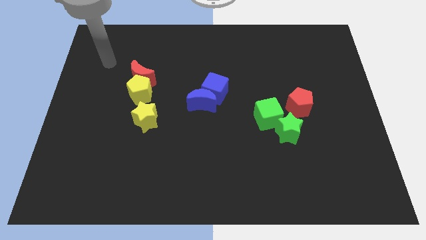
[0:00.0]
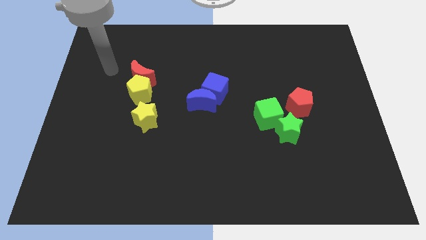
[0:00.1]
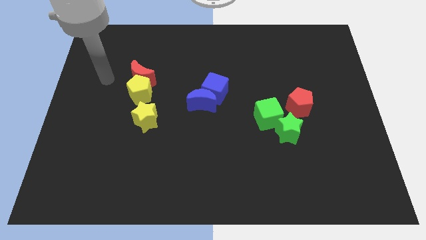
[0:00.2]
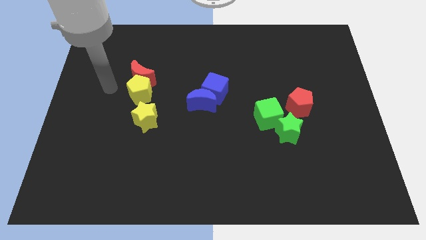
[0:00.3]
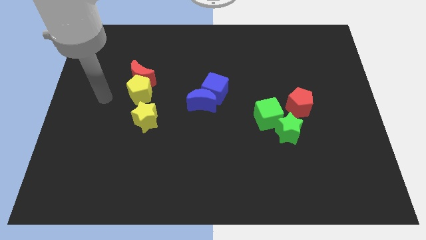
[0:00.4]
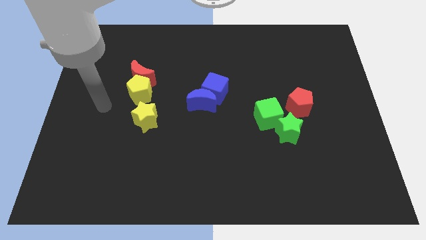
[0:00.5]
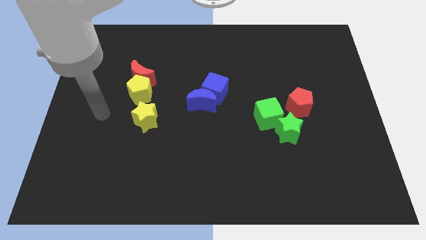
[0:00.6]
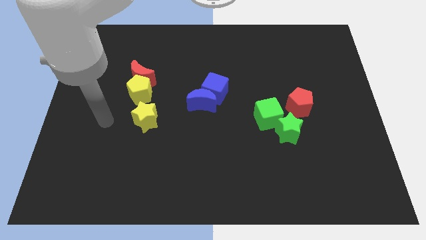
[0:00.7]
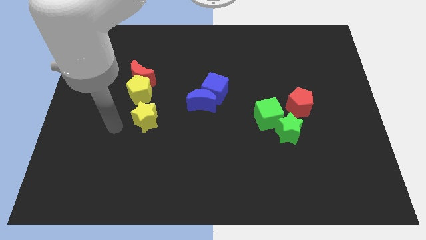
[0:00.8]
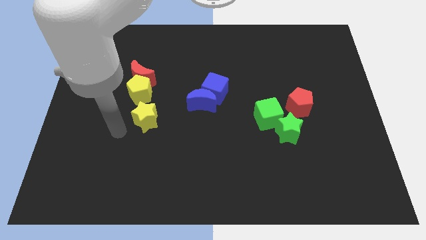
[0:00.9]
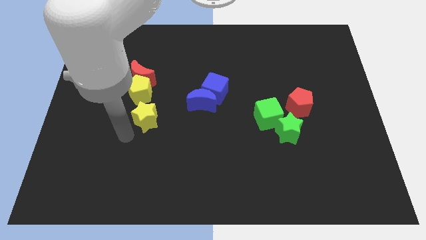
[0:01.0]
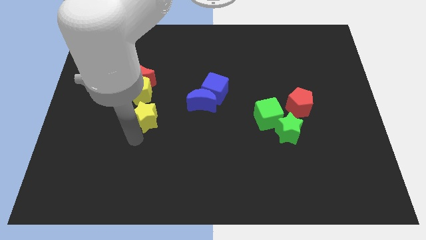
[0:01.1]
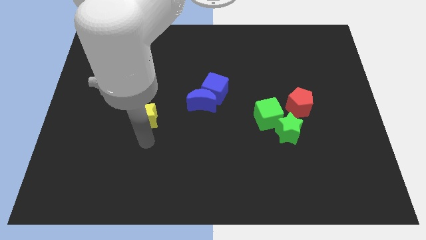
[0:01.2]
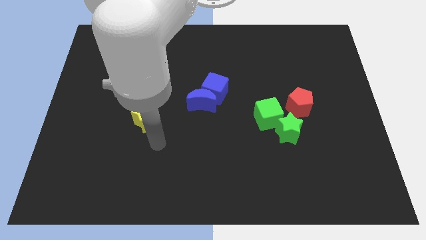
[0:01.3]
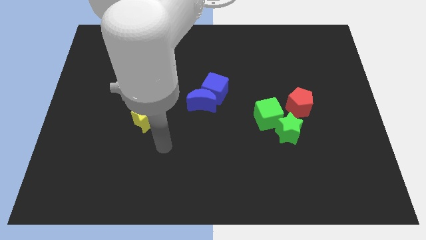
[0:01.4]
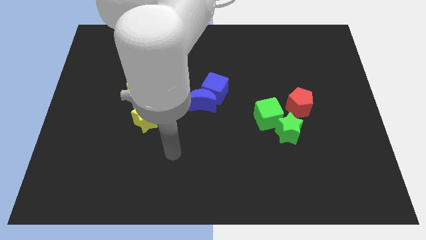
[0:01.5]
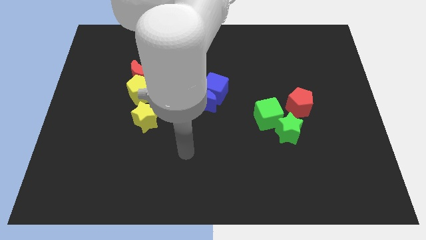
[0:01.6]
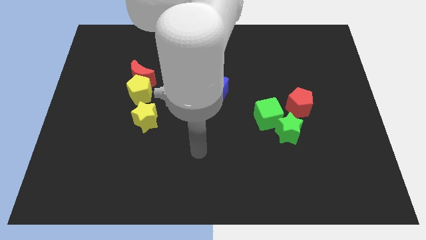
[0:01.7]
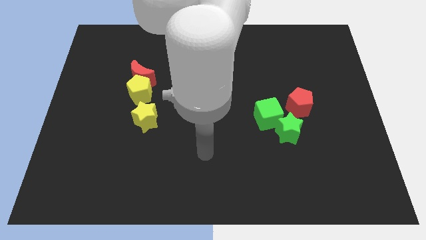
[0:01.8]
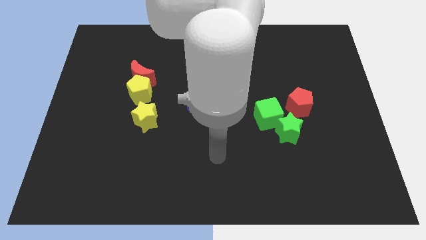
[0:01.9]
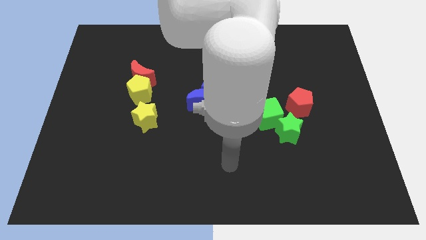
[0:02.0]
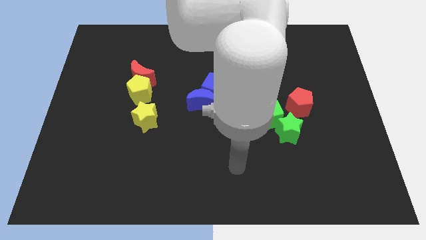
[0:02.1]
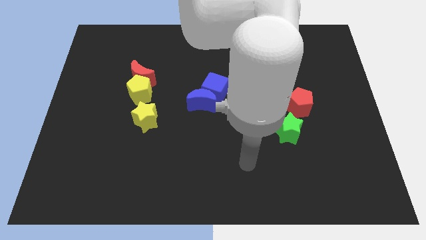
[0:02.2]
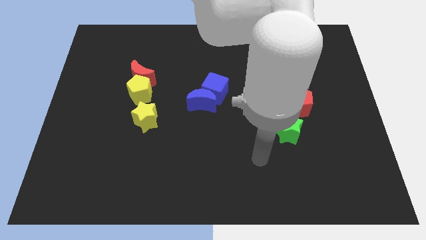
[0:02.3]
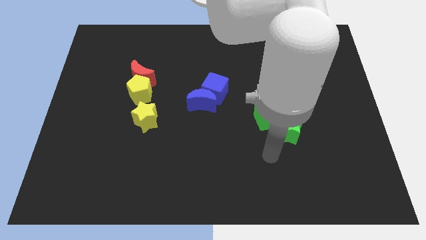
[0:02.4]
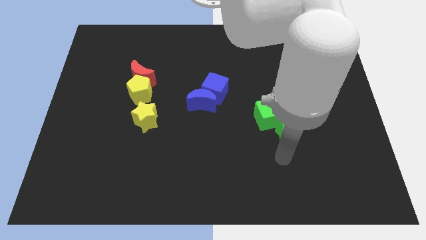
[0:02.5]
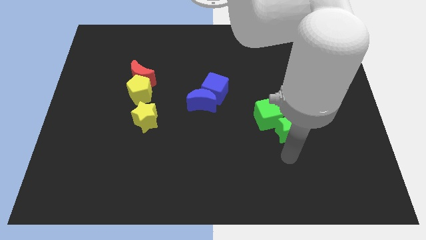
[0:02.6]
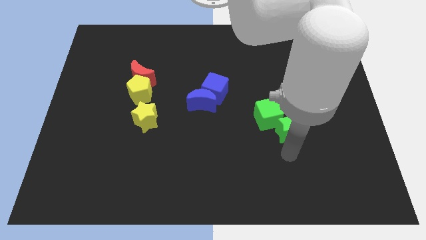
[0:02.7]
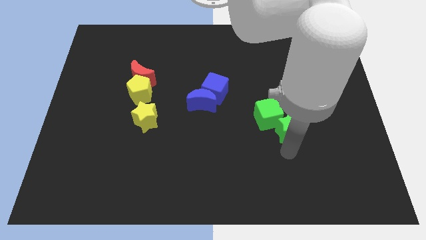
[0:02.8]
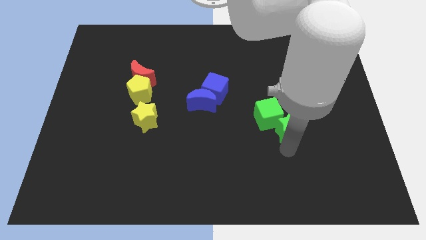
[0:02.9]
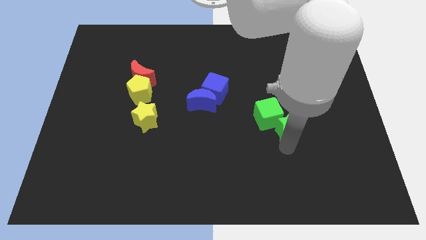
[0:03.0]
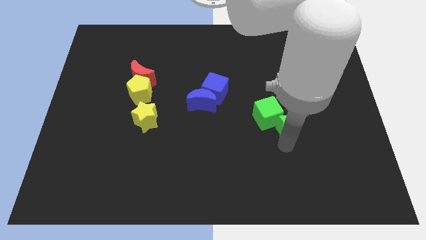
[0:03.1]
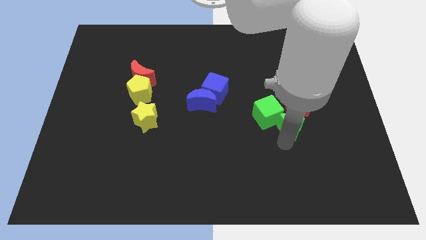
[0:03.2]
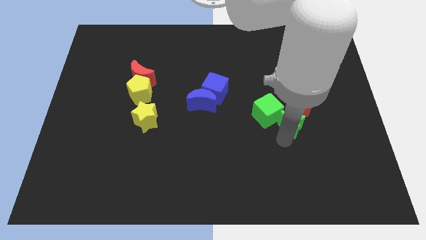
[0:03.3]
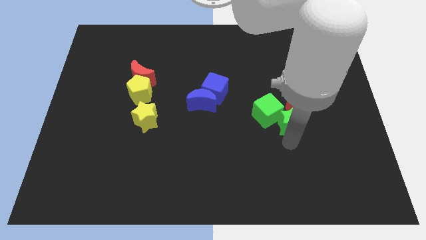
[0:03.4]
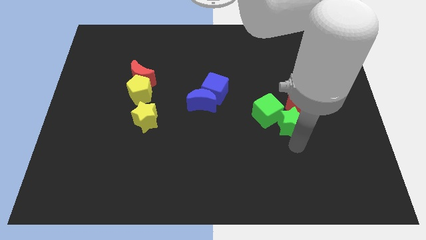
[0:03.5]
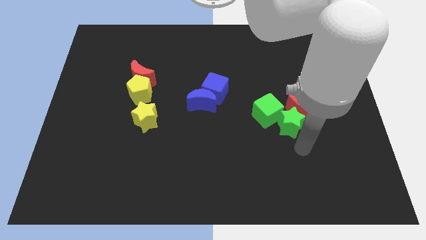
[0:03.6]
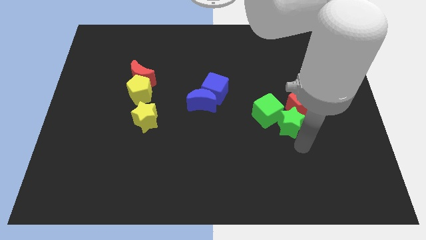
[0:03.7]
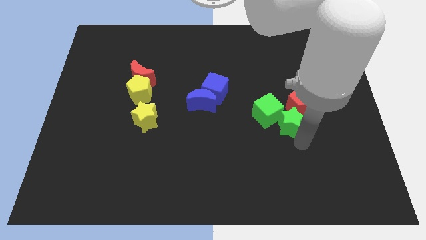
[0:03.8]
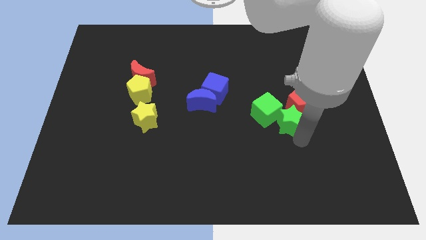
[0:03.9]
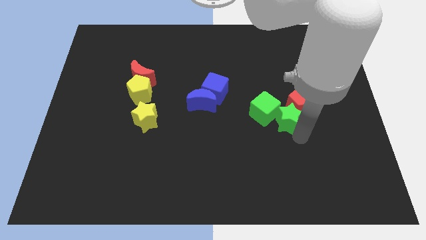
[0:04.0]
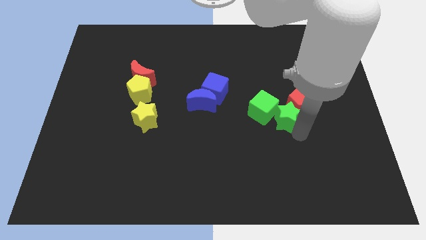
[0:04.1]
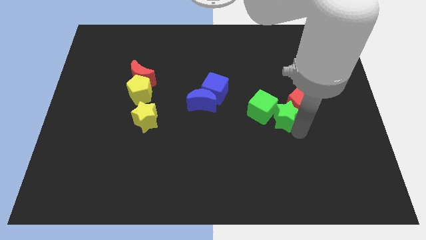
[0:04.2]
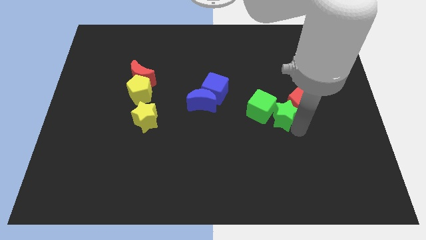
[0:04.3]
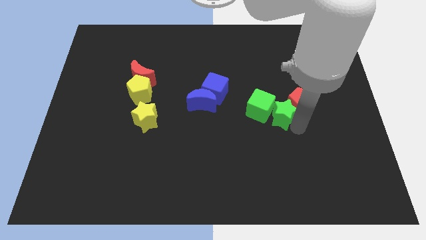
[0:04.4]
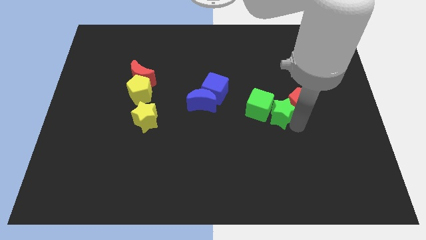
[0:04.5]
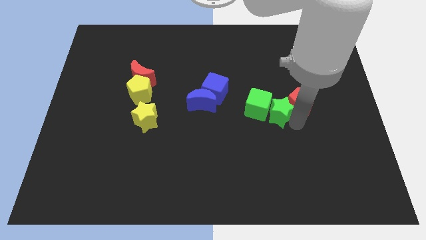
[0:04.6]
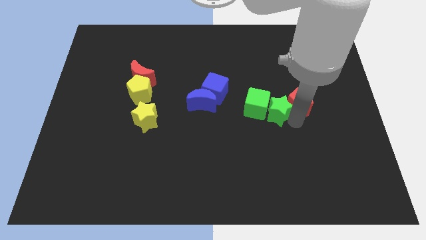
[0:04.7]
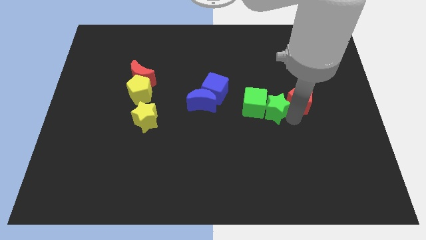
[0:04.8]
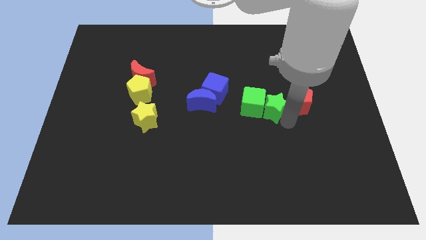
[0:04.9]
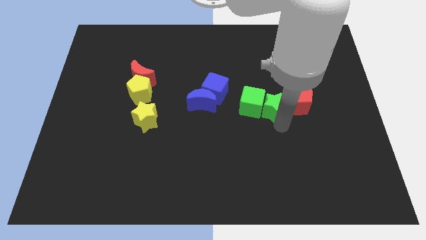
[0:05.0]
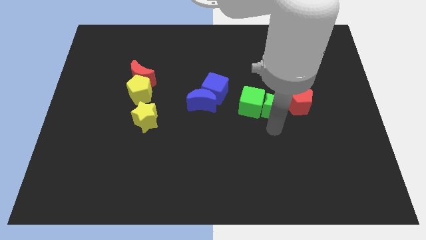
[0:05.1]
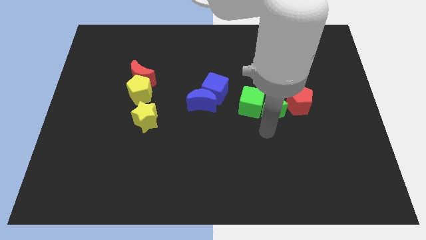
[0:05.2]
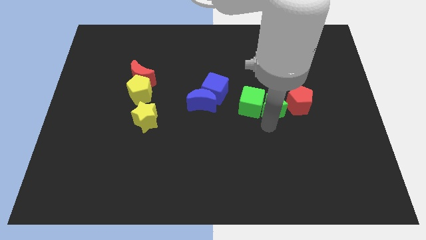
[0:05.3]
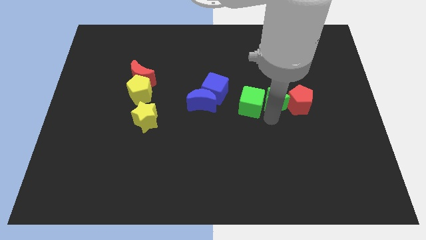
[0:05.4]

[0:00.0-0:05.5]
push the green star upwards a little

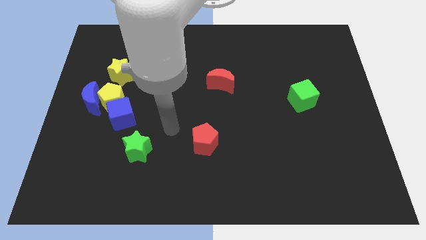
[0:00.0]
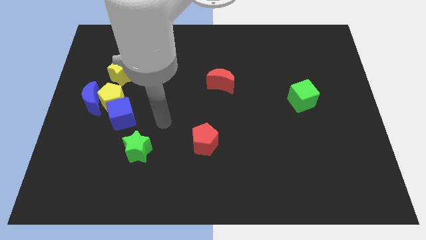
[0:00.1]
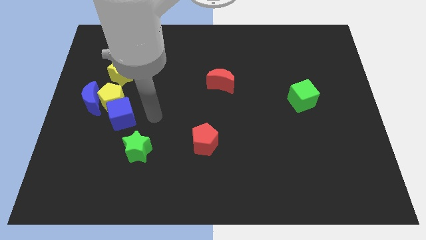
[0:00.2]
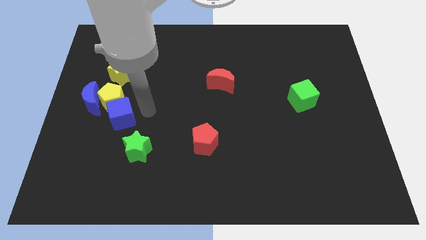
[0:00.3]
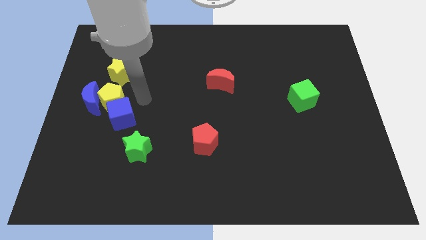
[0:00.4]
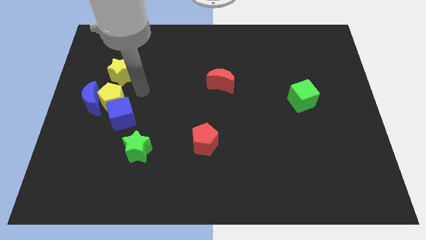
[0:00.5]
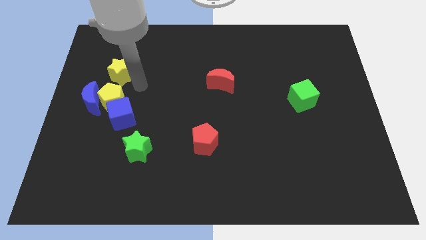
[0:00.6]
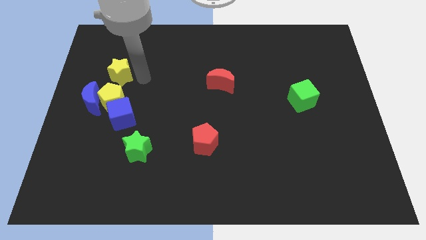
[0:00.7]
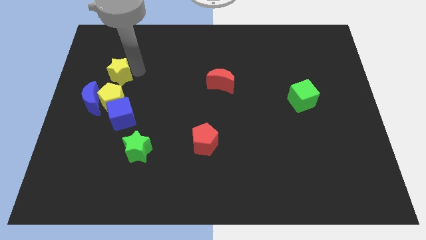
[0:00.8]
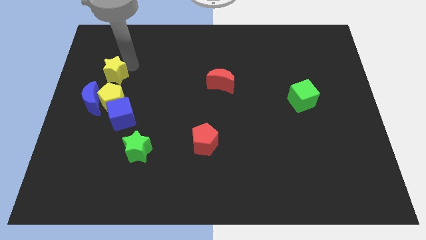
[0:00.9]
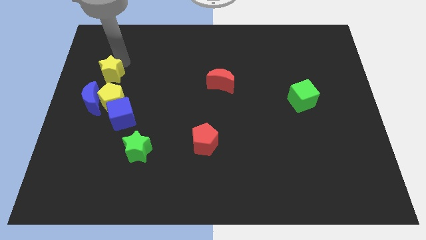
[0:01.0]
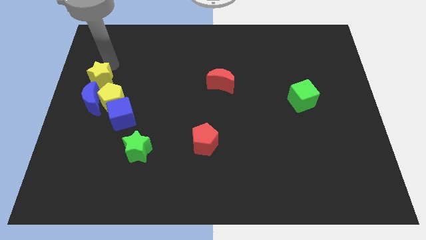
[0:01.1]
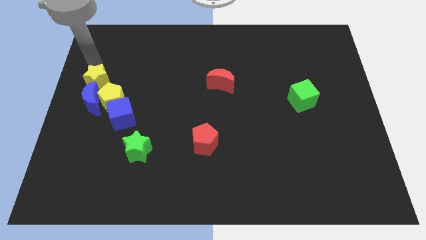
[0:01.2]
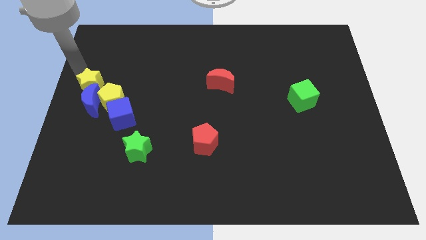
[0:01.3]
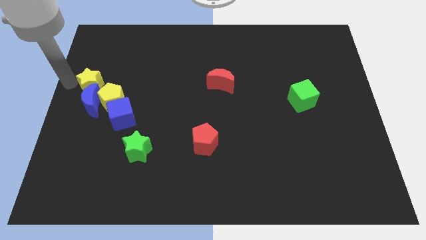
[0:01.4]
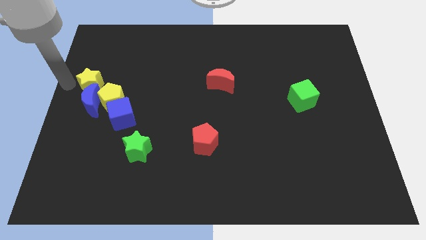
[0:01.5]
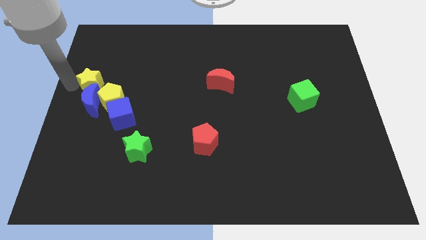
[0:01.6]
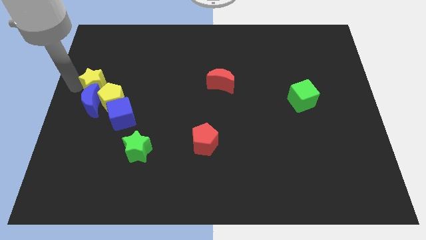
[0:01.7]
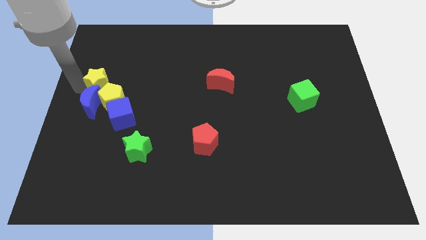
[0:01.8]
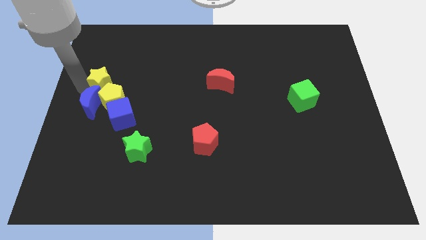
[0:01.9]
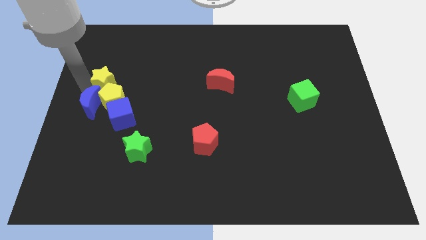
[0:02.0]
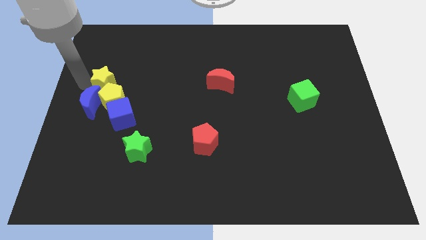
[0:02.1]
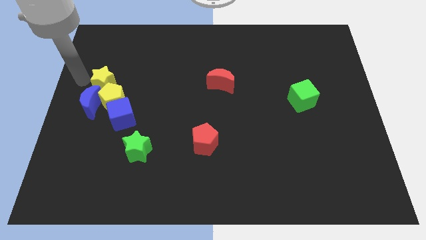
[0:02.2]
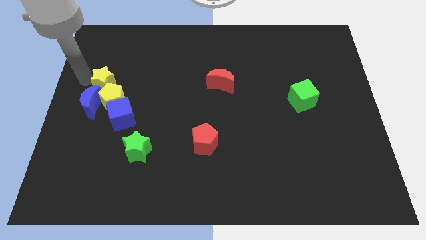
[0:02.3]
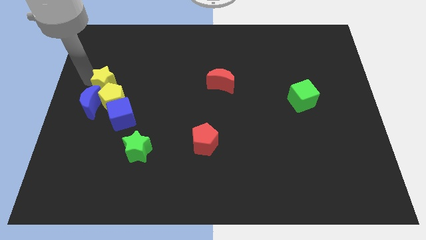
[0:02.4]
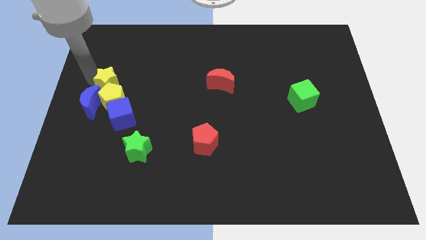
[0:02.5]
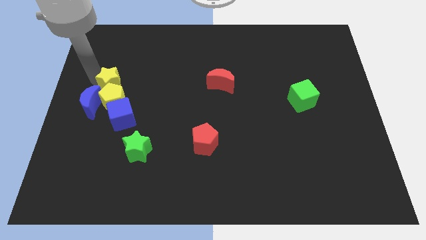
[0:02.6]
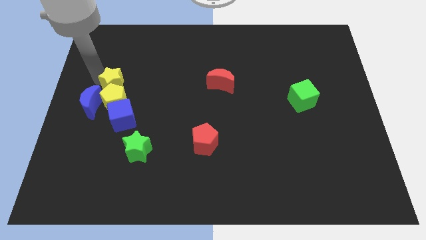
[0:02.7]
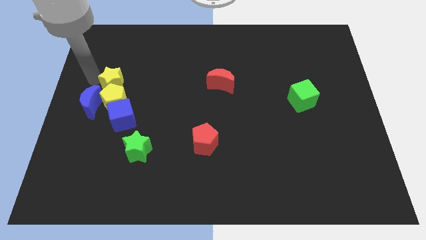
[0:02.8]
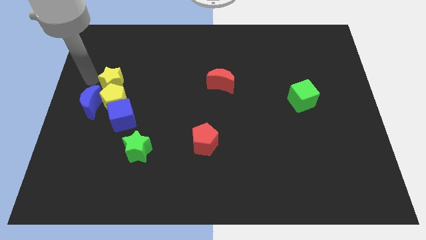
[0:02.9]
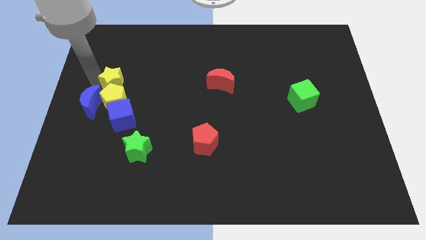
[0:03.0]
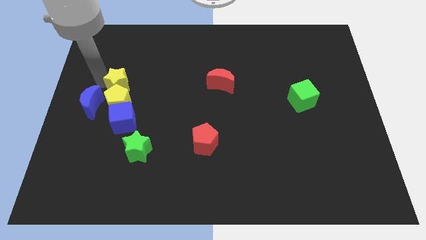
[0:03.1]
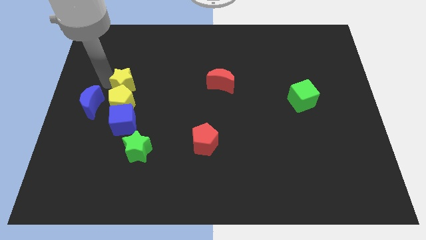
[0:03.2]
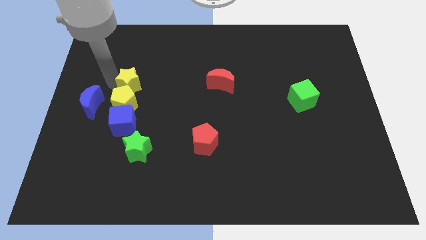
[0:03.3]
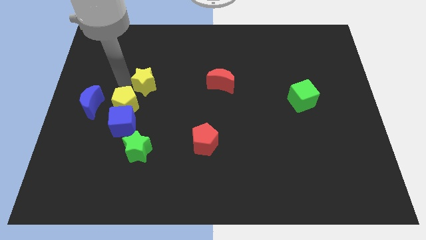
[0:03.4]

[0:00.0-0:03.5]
slightly slide the yellow star downwards and to the right diagonally
